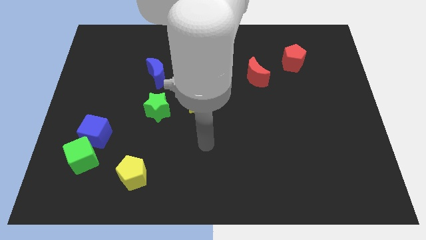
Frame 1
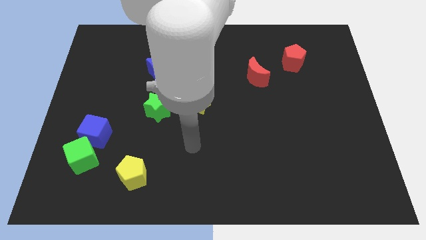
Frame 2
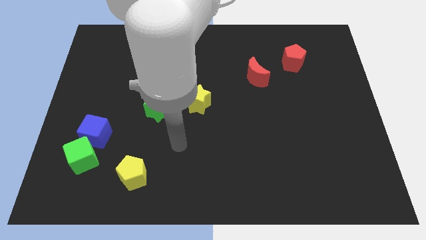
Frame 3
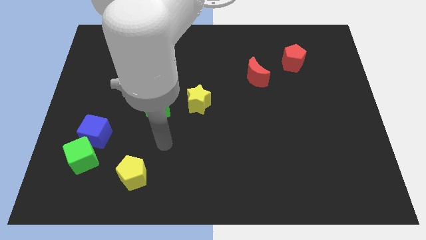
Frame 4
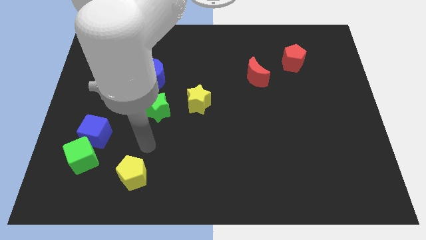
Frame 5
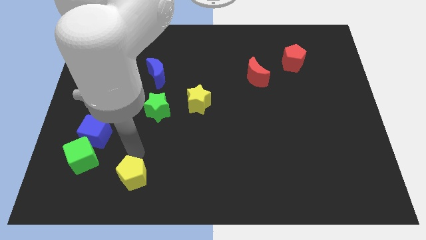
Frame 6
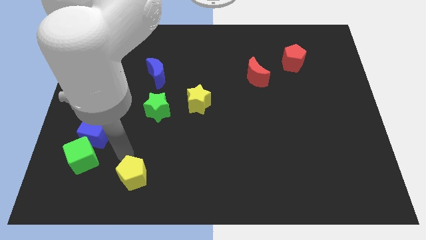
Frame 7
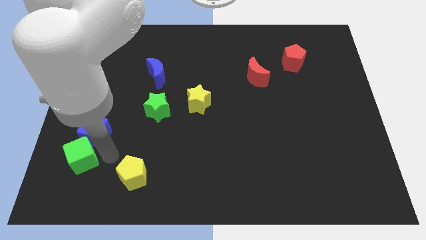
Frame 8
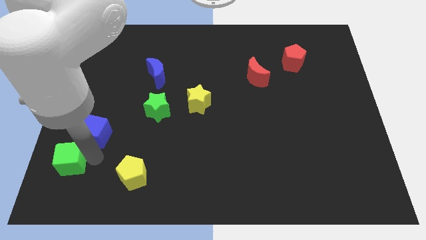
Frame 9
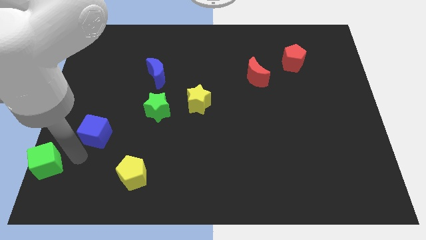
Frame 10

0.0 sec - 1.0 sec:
pull the blue cube apart from the green cube

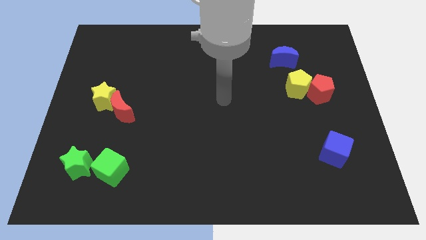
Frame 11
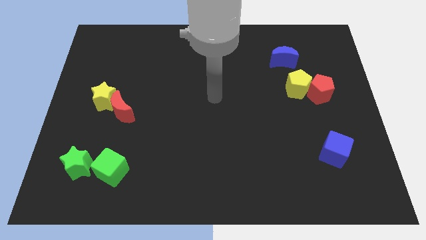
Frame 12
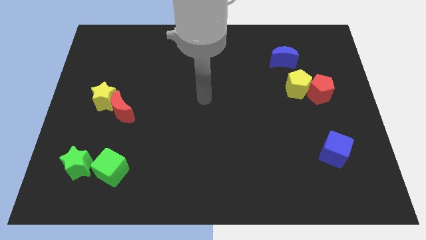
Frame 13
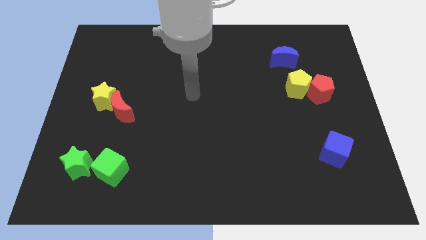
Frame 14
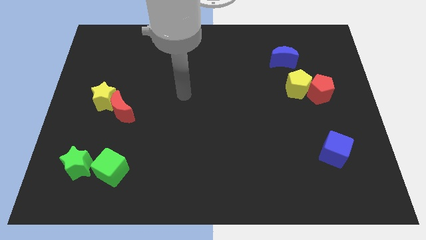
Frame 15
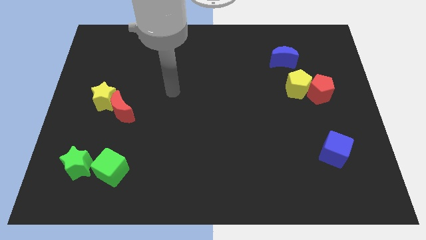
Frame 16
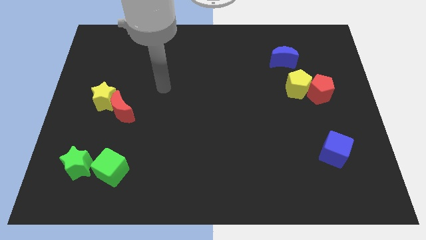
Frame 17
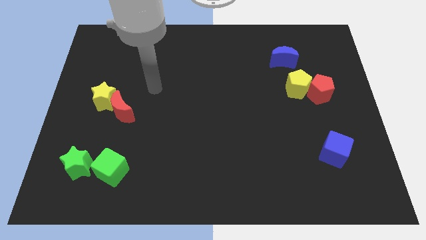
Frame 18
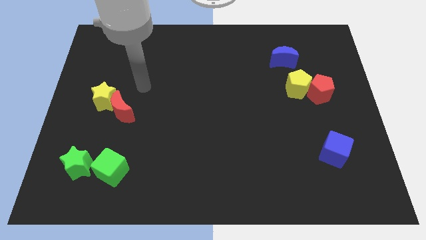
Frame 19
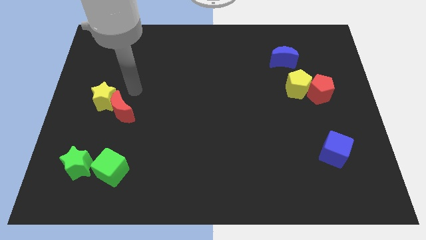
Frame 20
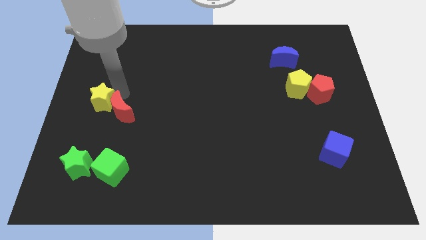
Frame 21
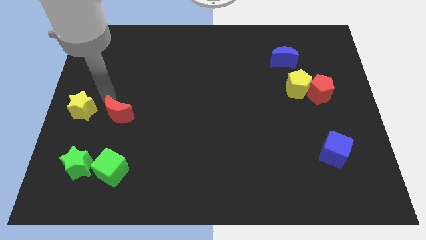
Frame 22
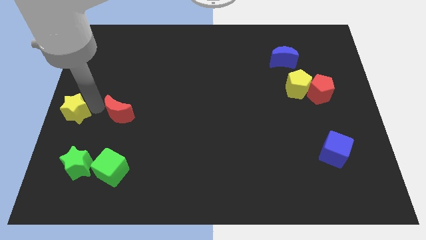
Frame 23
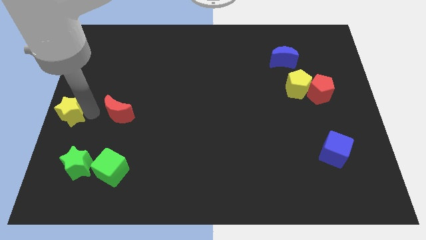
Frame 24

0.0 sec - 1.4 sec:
move the red moon away from the yellow star

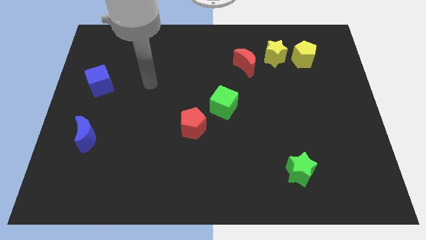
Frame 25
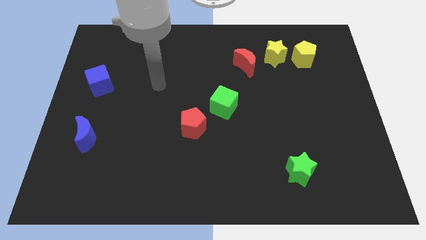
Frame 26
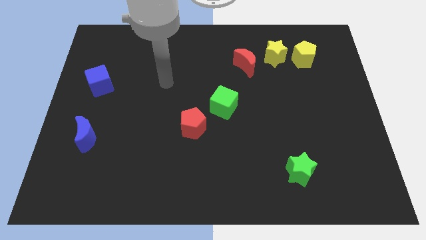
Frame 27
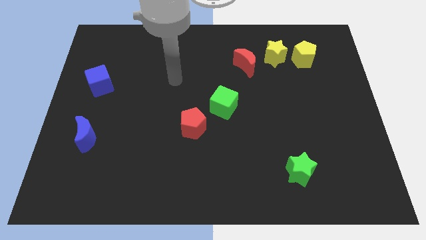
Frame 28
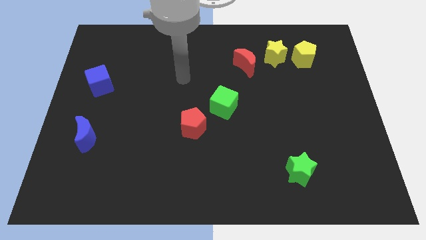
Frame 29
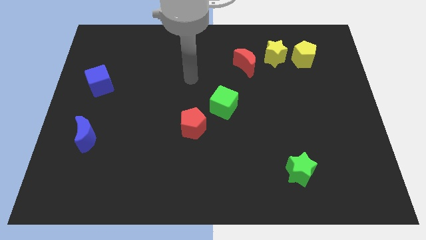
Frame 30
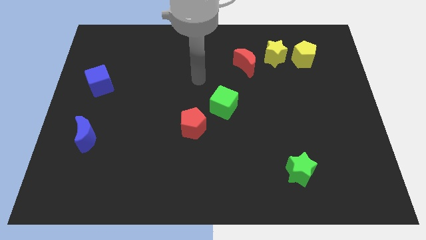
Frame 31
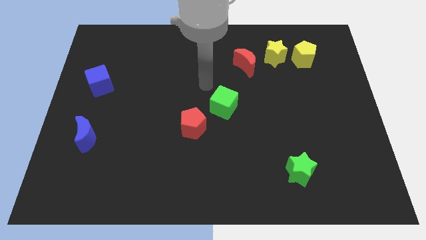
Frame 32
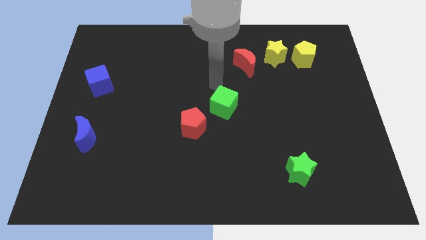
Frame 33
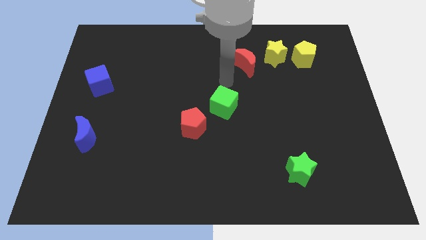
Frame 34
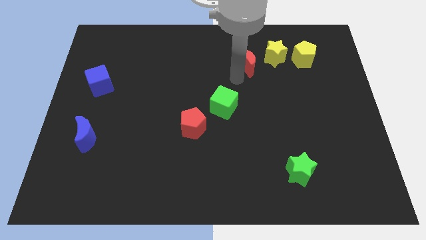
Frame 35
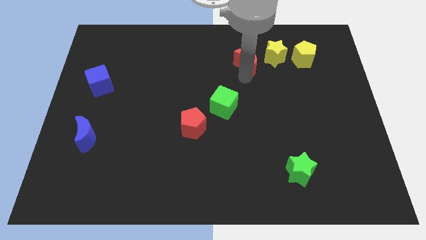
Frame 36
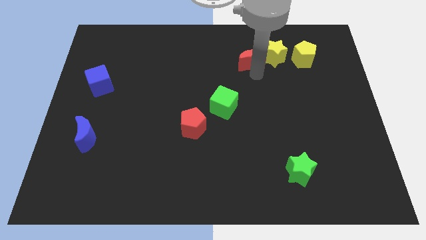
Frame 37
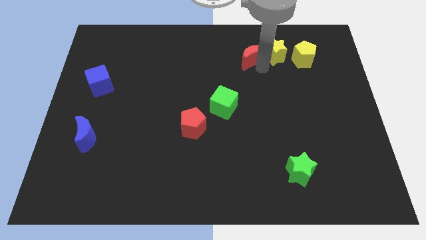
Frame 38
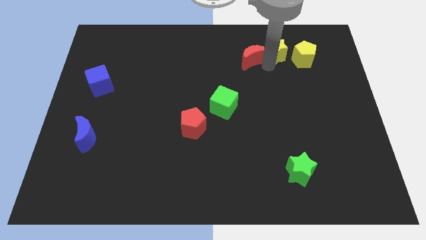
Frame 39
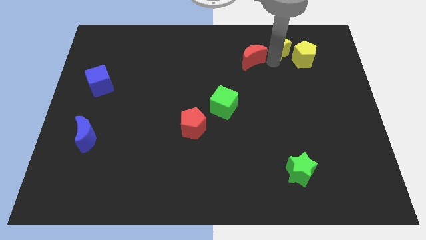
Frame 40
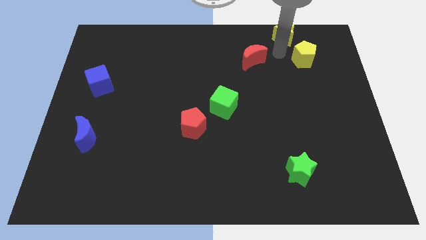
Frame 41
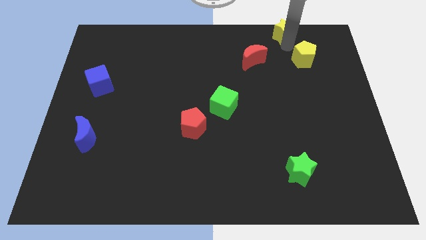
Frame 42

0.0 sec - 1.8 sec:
move the yellow pentagon away from the yellow star

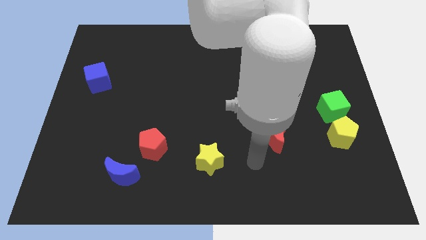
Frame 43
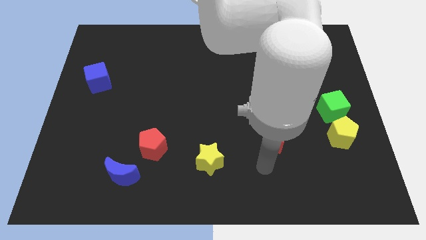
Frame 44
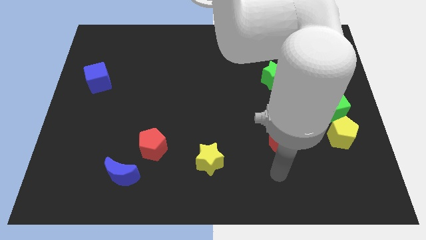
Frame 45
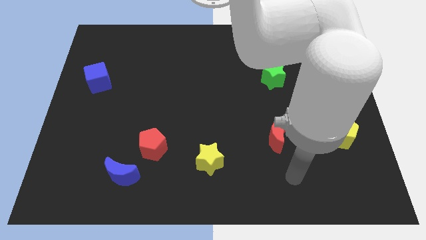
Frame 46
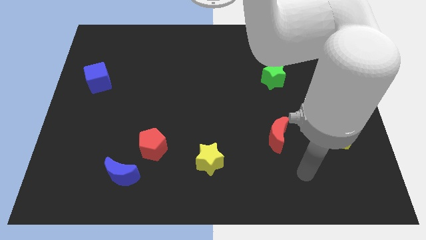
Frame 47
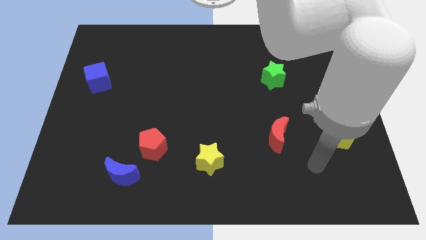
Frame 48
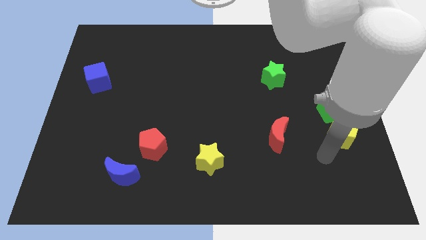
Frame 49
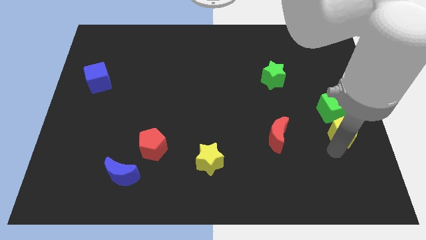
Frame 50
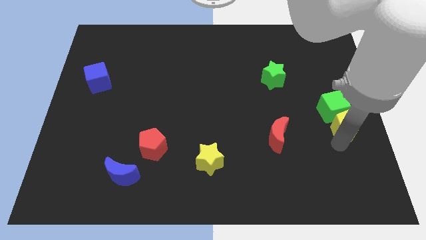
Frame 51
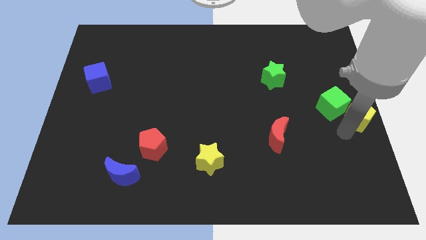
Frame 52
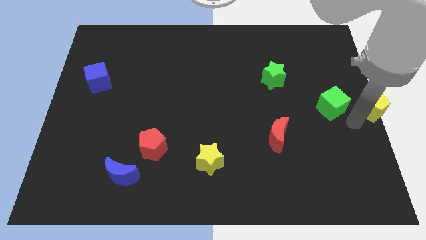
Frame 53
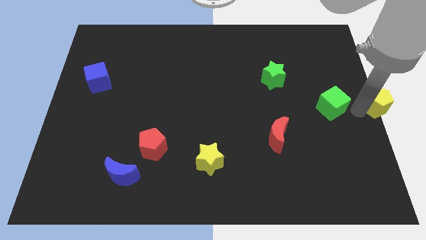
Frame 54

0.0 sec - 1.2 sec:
separate the green cube from the yellow pentagon

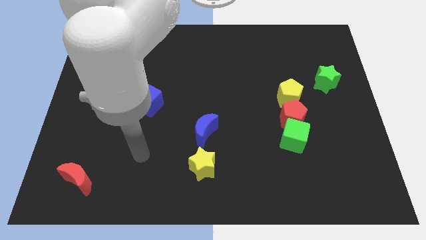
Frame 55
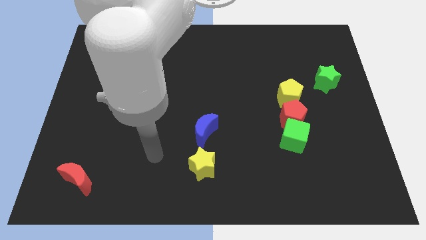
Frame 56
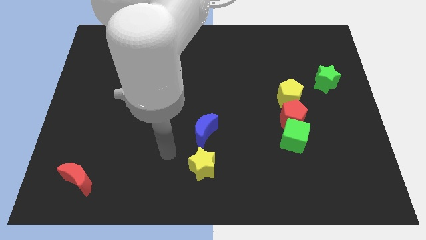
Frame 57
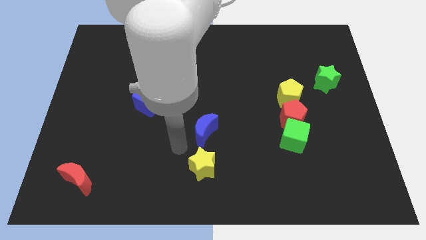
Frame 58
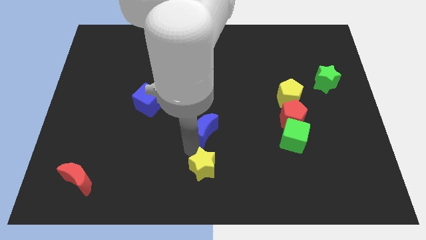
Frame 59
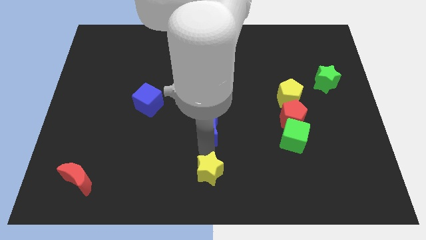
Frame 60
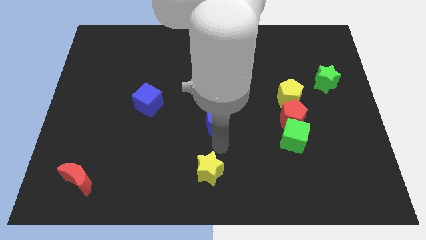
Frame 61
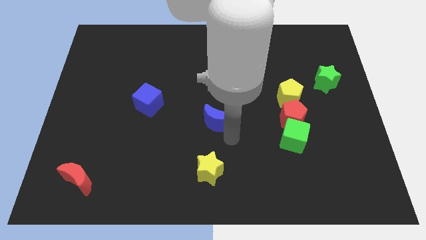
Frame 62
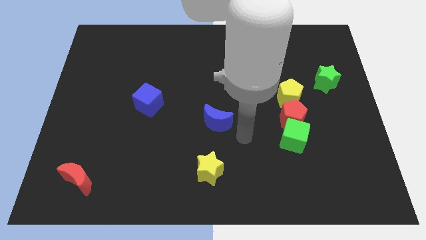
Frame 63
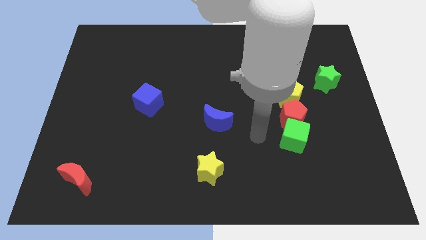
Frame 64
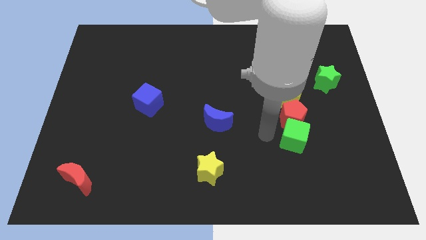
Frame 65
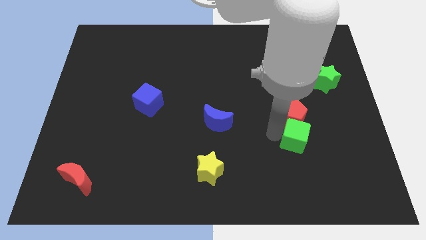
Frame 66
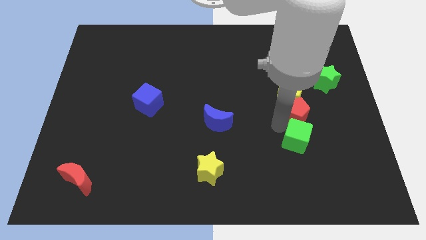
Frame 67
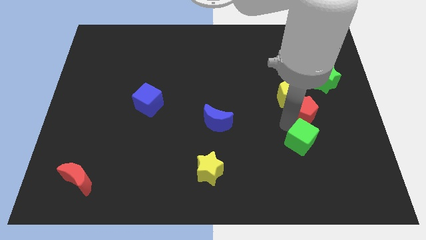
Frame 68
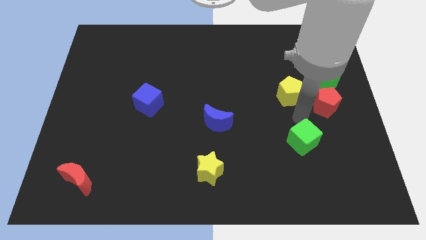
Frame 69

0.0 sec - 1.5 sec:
pull the green cube apart from the red pentagon

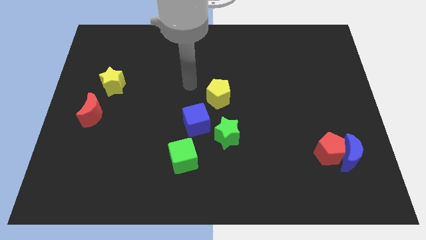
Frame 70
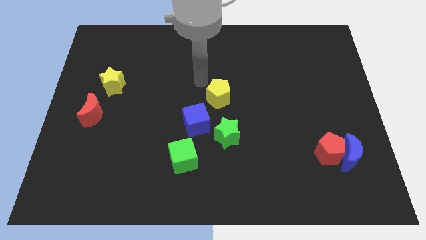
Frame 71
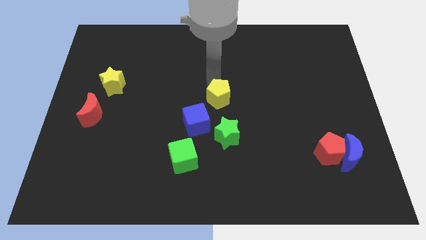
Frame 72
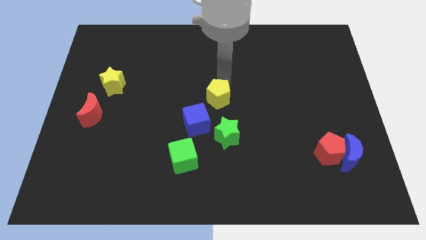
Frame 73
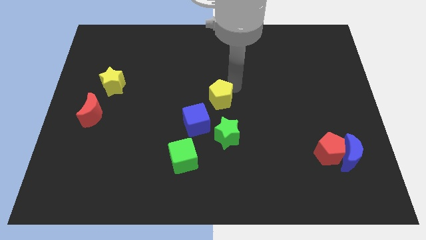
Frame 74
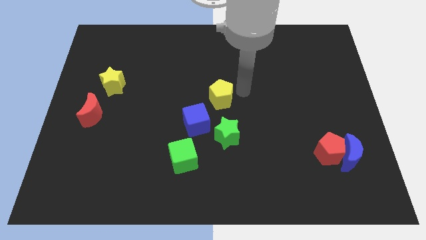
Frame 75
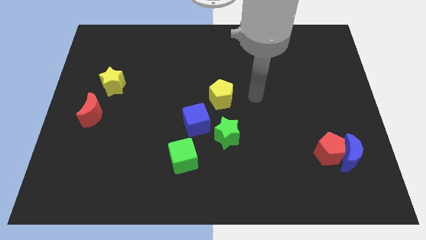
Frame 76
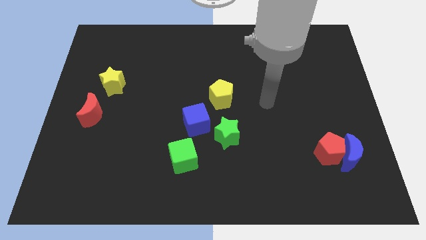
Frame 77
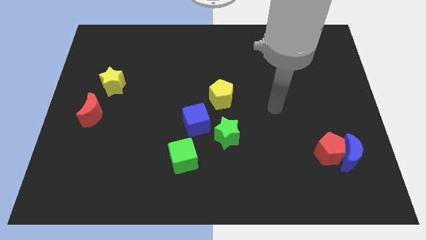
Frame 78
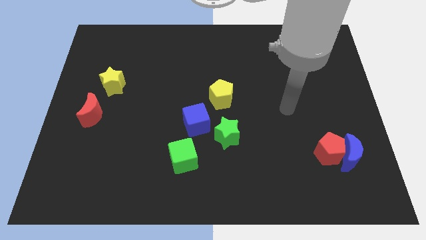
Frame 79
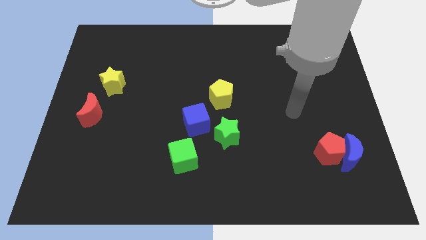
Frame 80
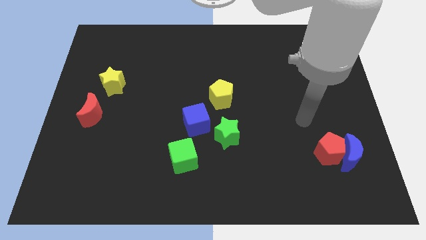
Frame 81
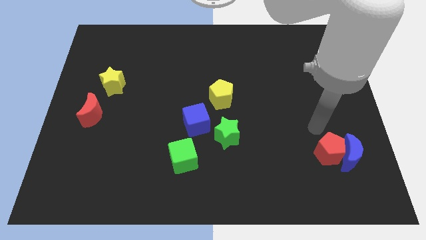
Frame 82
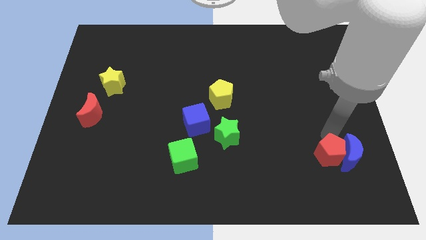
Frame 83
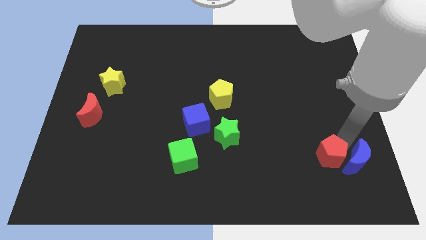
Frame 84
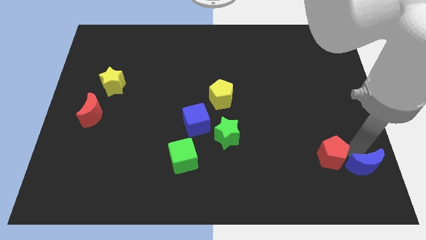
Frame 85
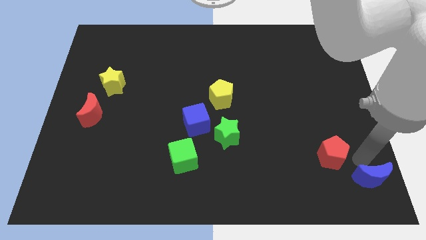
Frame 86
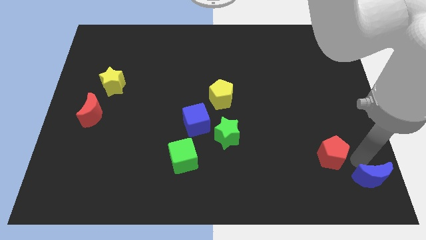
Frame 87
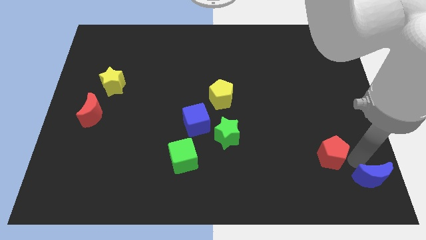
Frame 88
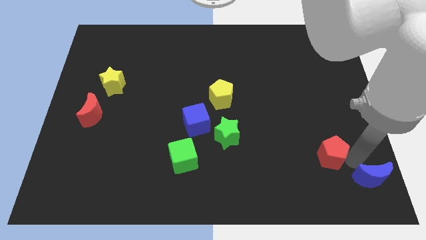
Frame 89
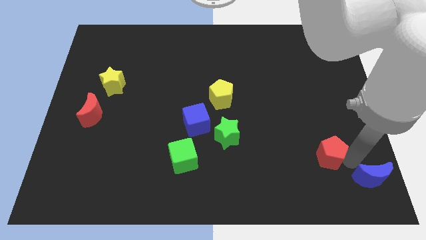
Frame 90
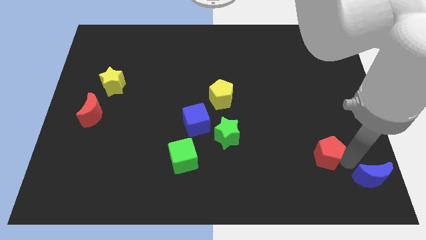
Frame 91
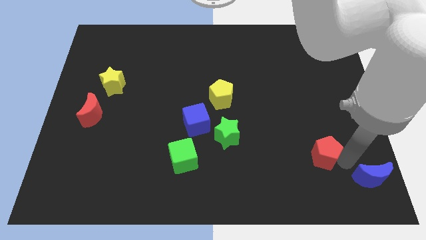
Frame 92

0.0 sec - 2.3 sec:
move the red pentagon away from the blue moon

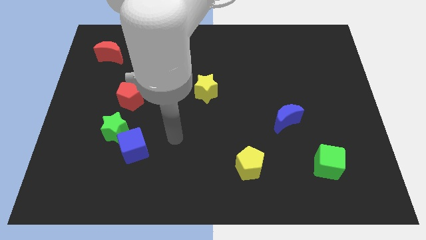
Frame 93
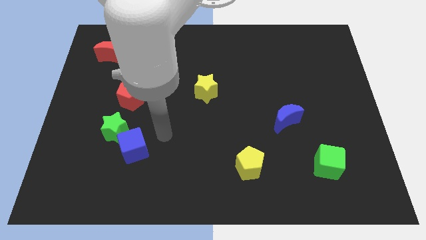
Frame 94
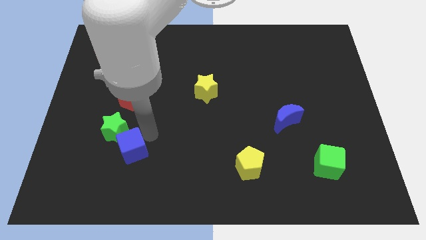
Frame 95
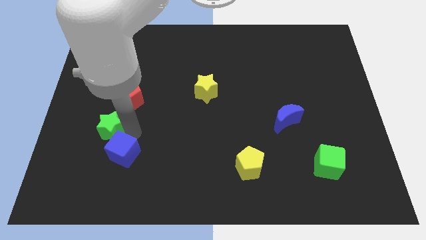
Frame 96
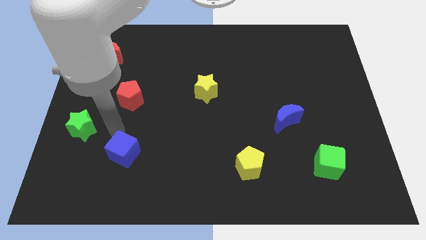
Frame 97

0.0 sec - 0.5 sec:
separate the blue cube from the green star
